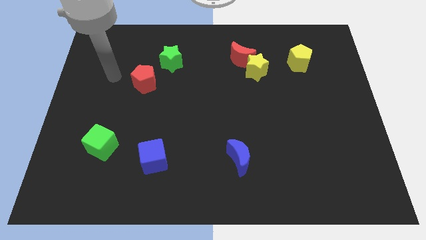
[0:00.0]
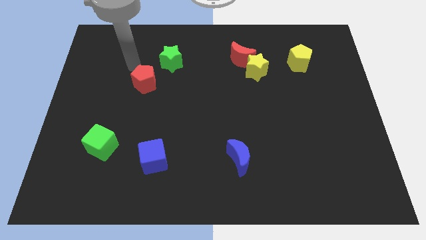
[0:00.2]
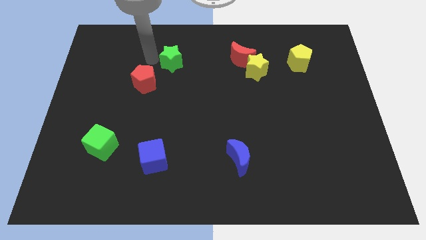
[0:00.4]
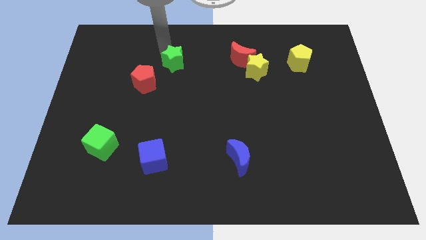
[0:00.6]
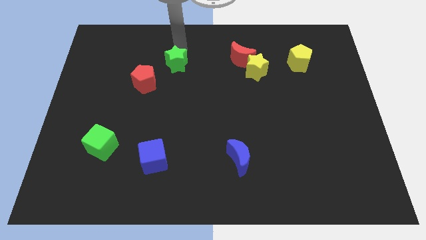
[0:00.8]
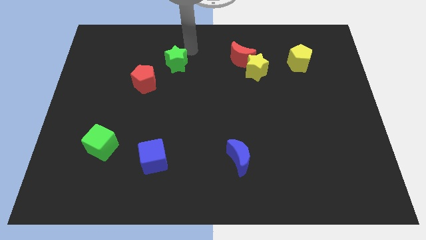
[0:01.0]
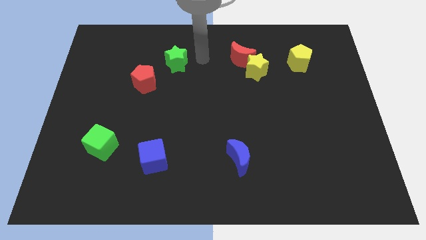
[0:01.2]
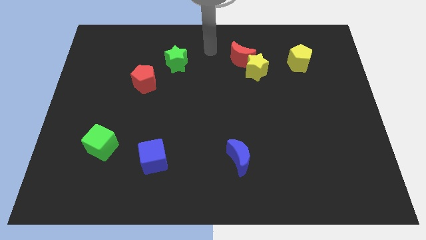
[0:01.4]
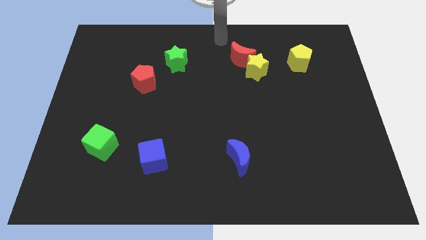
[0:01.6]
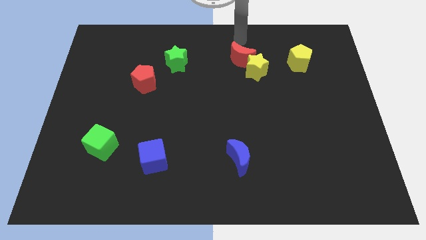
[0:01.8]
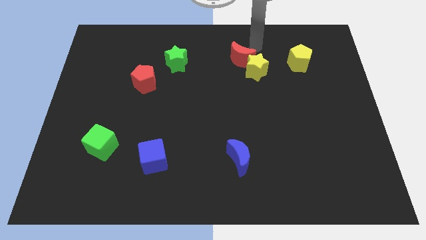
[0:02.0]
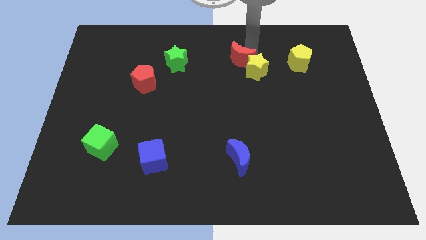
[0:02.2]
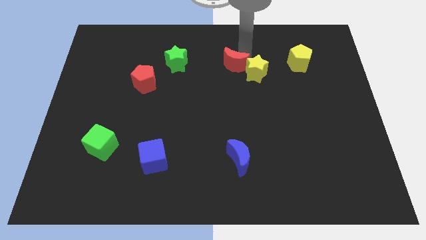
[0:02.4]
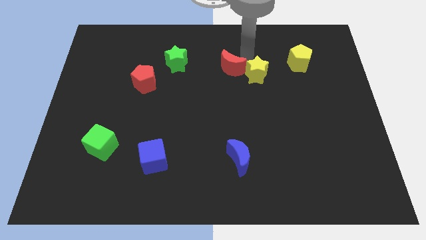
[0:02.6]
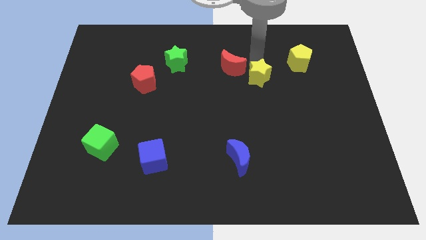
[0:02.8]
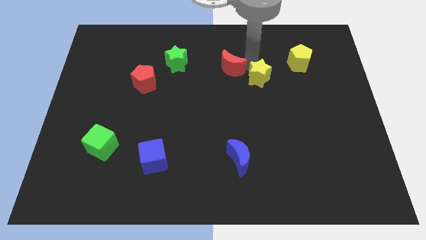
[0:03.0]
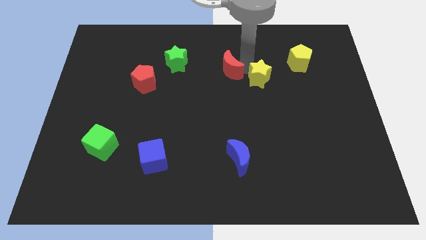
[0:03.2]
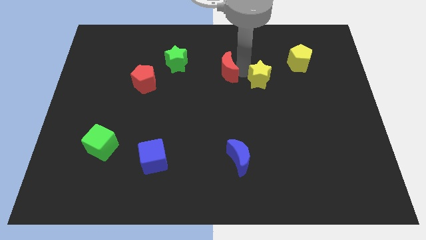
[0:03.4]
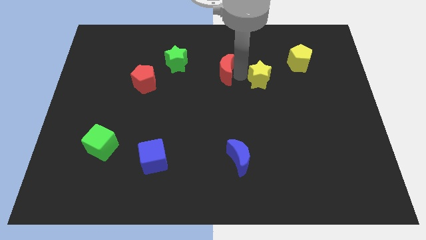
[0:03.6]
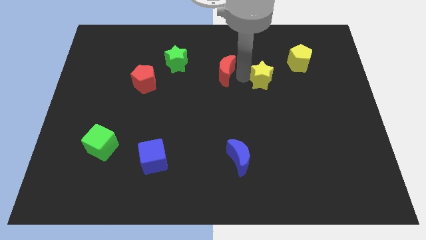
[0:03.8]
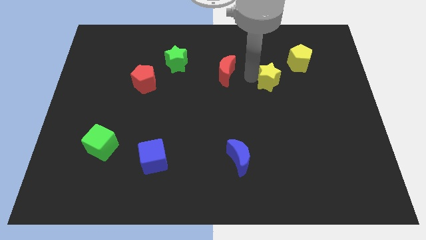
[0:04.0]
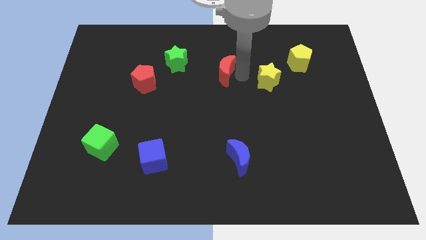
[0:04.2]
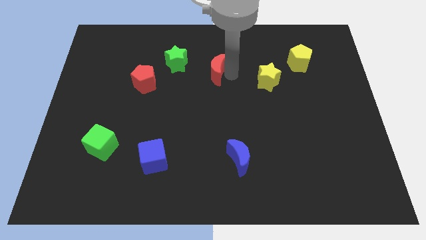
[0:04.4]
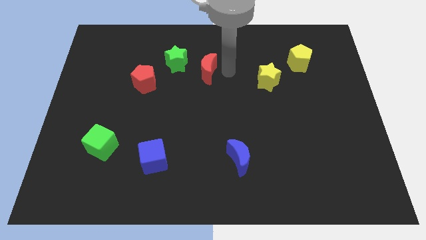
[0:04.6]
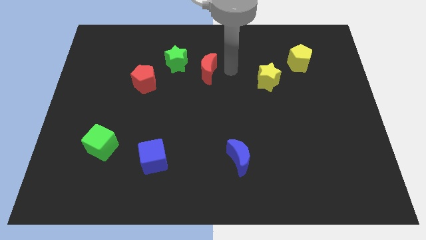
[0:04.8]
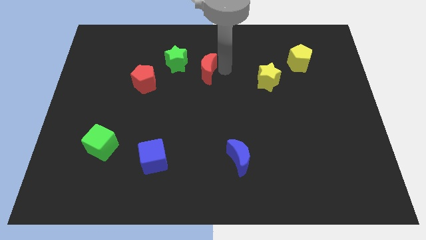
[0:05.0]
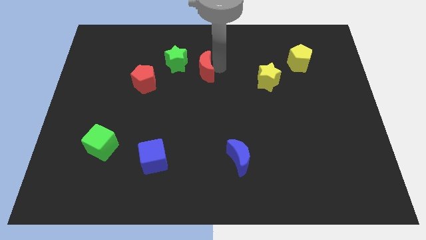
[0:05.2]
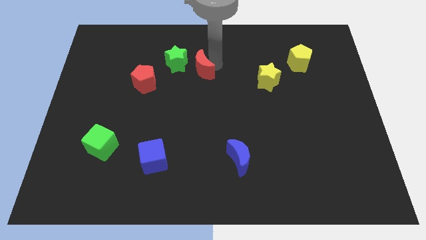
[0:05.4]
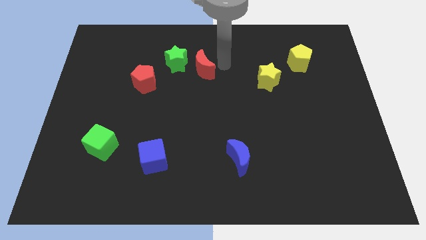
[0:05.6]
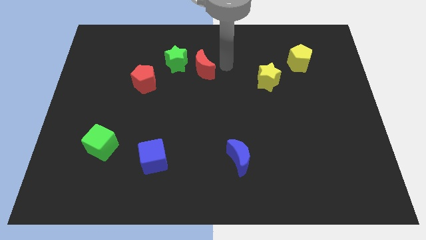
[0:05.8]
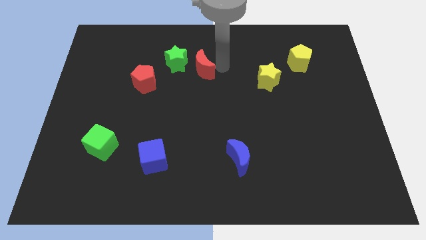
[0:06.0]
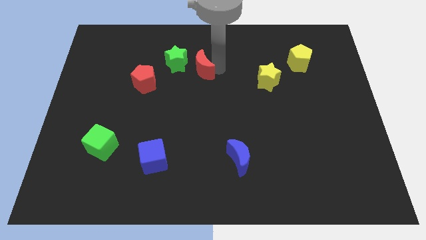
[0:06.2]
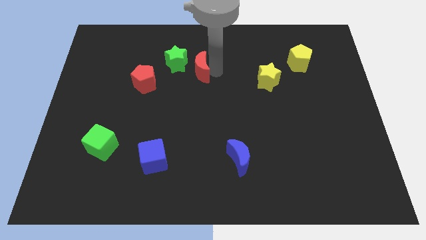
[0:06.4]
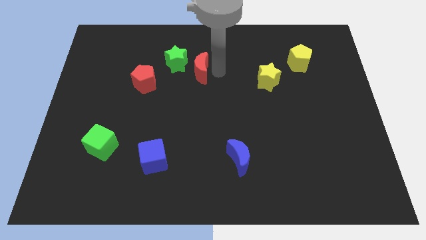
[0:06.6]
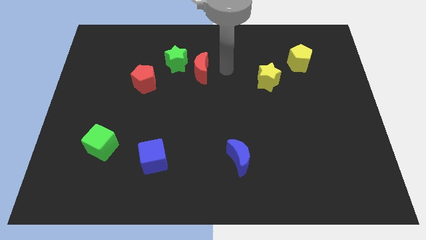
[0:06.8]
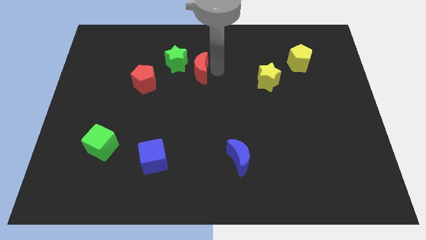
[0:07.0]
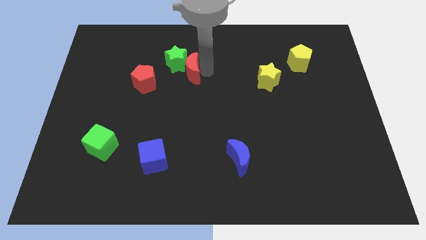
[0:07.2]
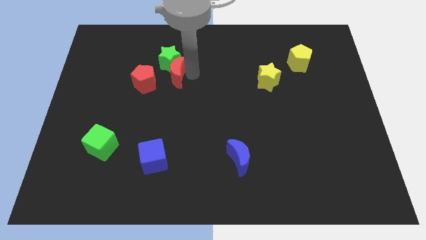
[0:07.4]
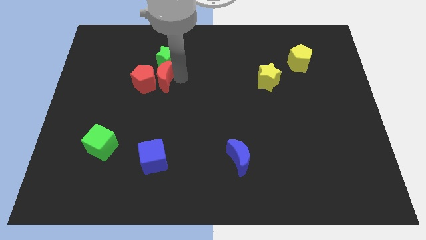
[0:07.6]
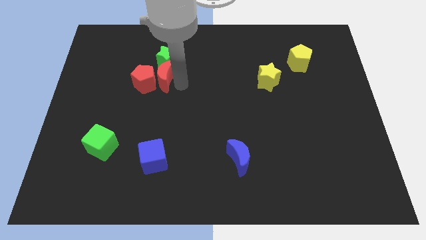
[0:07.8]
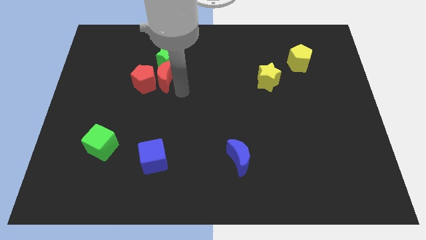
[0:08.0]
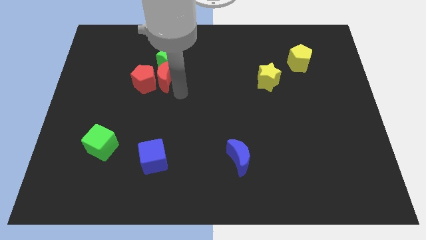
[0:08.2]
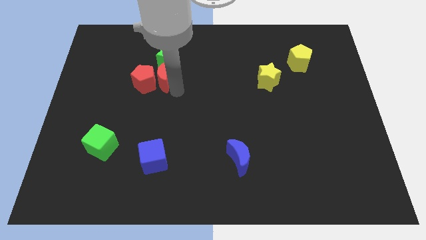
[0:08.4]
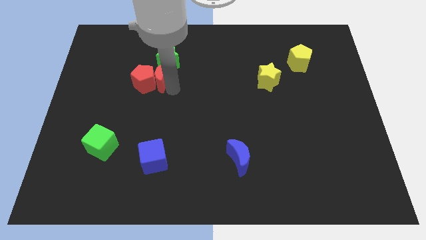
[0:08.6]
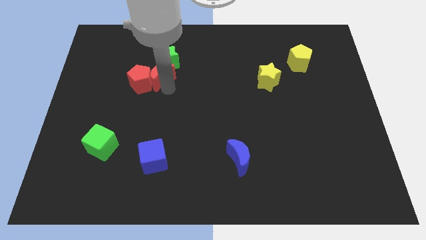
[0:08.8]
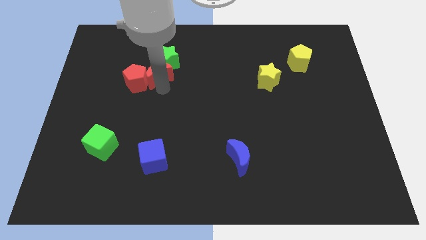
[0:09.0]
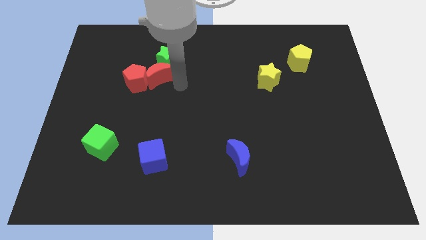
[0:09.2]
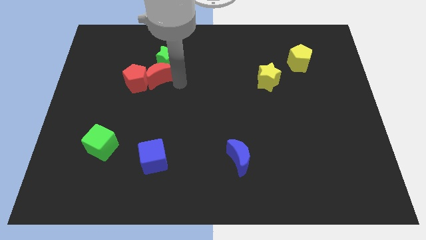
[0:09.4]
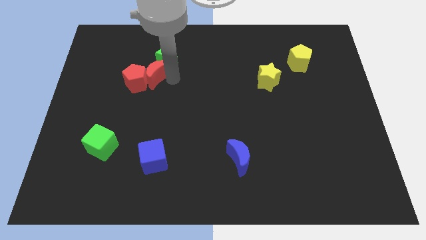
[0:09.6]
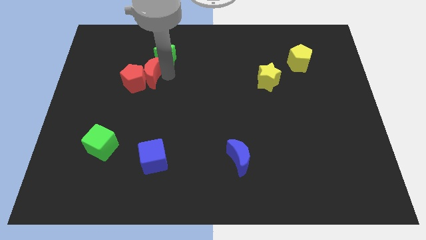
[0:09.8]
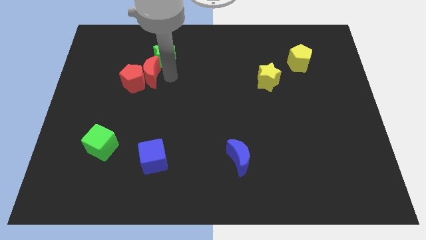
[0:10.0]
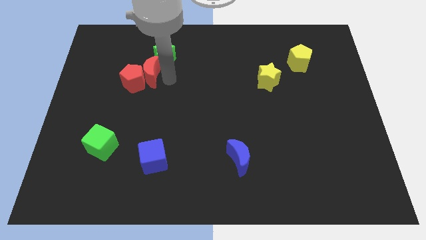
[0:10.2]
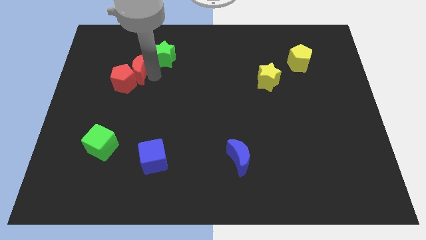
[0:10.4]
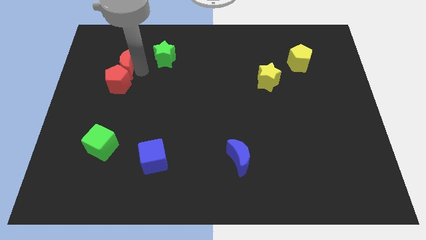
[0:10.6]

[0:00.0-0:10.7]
push the red moon to the top left side of the red pentagon

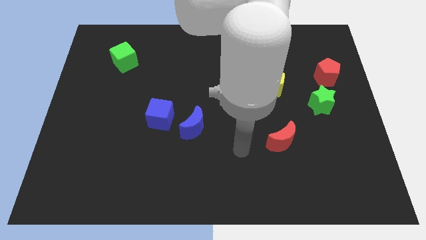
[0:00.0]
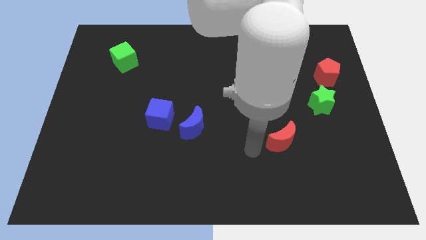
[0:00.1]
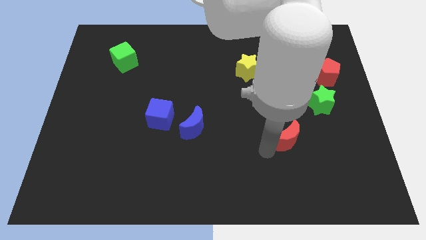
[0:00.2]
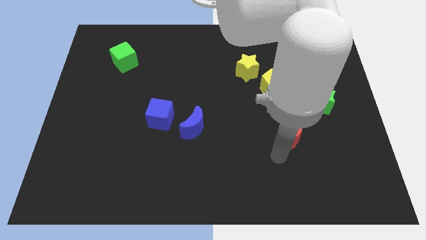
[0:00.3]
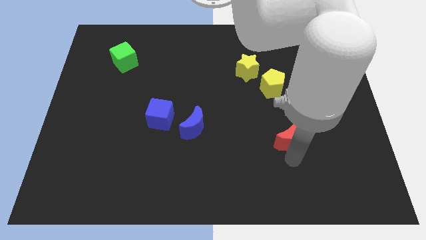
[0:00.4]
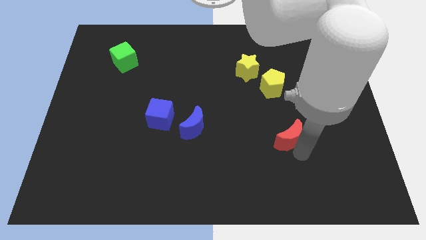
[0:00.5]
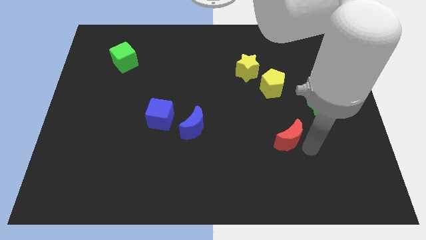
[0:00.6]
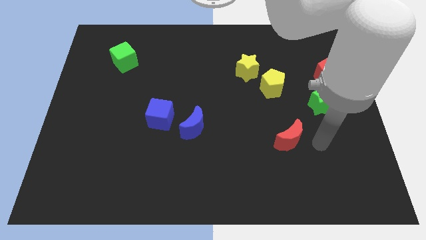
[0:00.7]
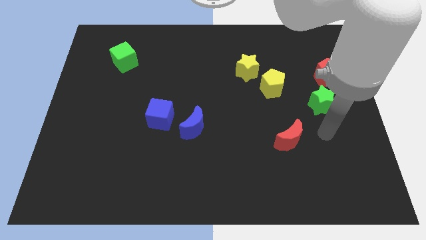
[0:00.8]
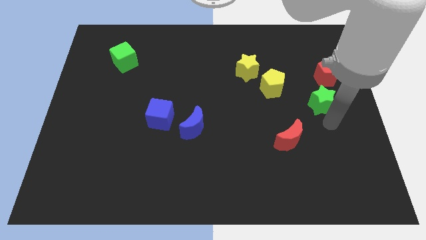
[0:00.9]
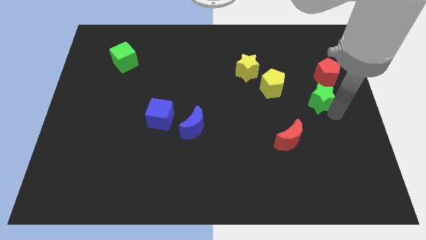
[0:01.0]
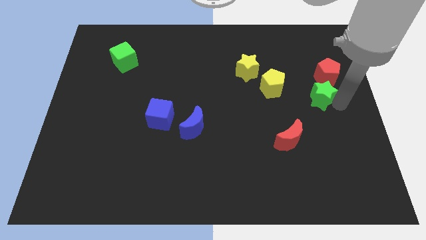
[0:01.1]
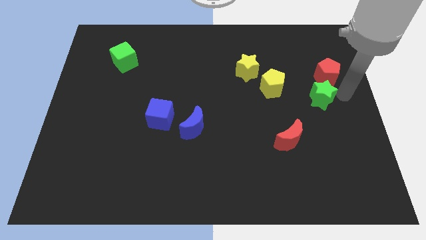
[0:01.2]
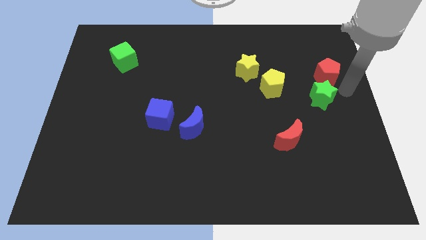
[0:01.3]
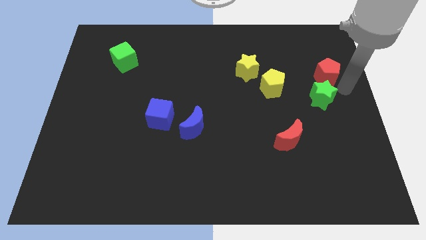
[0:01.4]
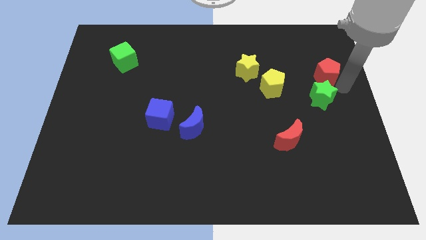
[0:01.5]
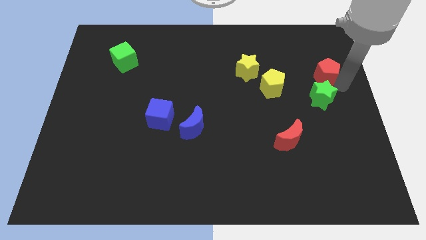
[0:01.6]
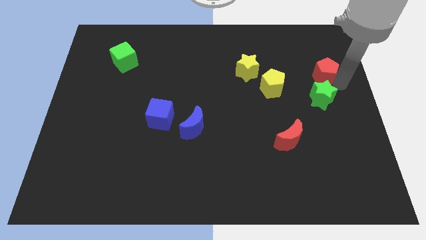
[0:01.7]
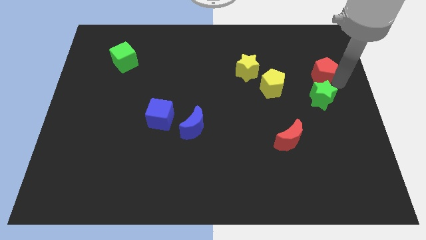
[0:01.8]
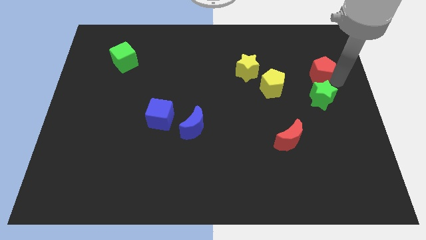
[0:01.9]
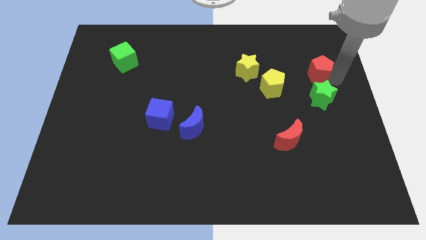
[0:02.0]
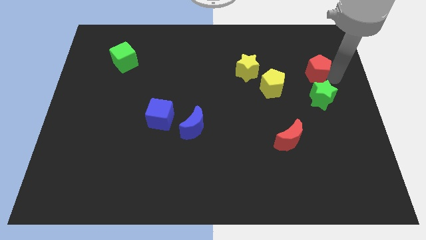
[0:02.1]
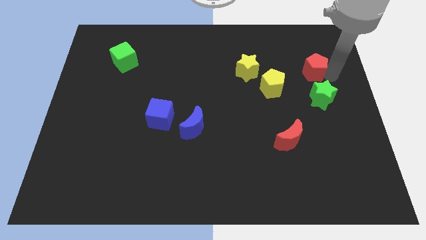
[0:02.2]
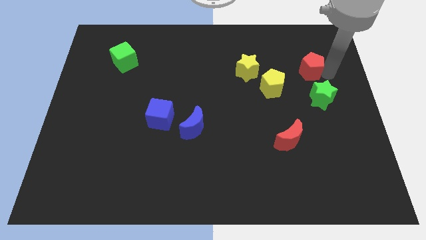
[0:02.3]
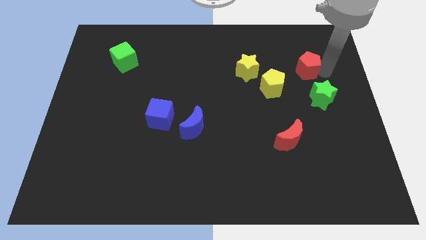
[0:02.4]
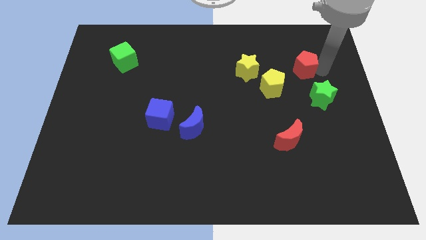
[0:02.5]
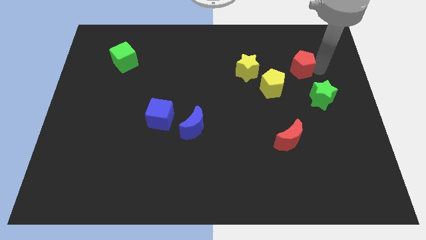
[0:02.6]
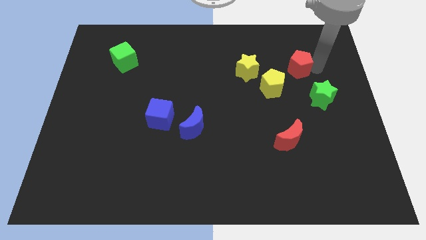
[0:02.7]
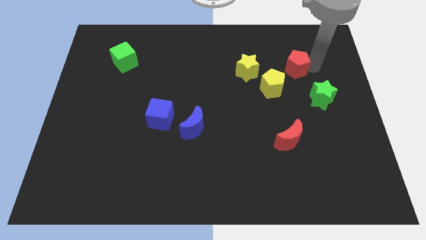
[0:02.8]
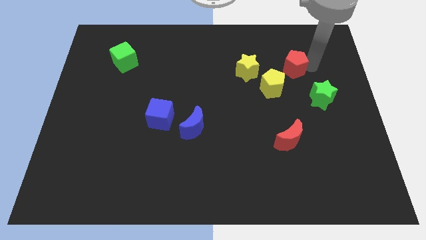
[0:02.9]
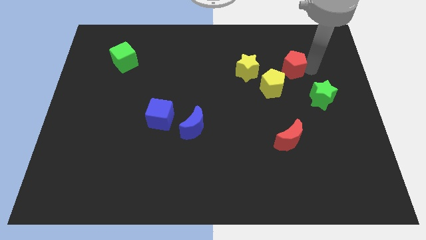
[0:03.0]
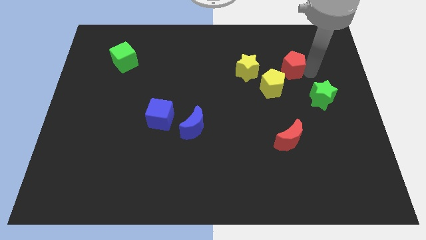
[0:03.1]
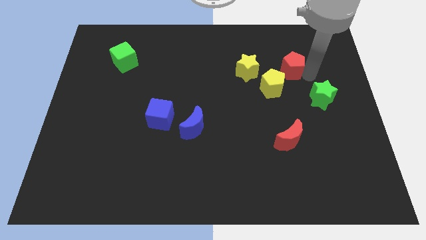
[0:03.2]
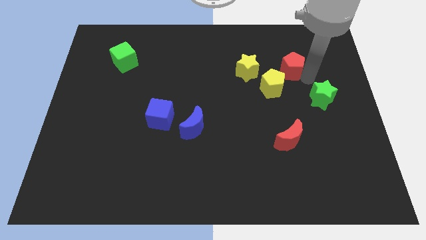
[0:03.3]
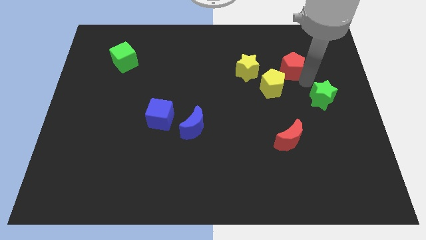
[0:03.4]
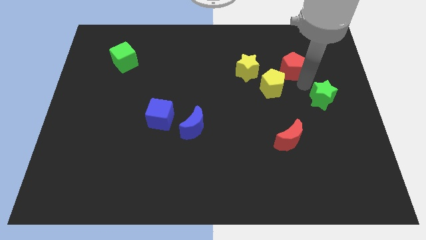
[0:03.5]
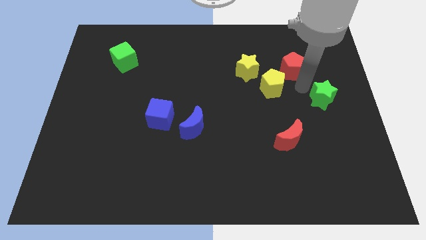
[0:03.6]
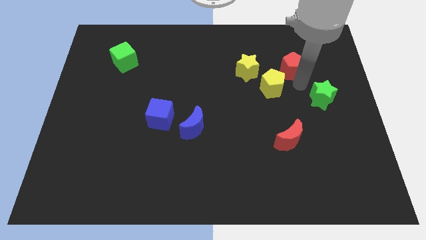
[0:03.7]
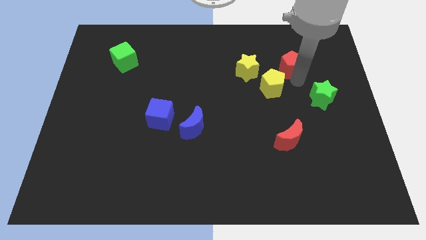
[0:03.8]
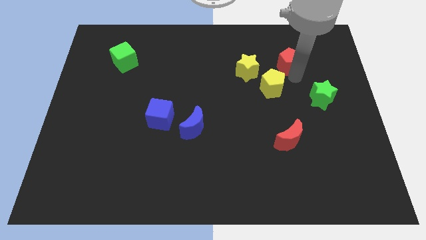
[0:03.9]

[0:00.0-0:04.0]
push the red pentagon to the top of the yellow pentagon
